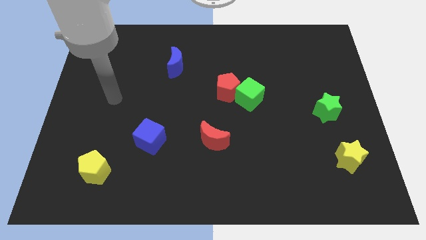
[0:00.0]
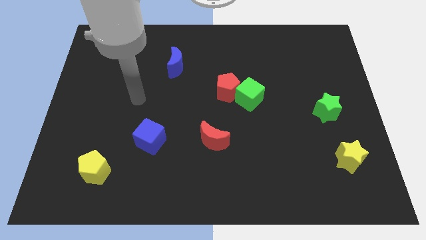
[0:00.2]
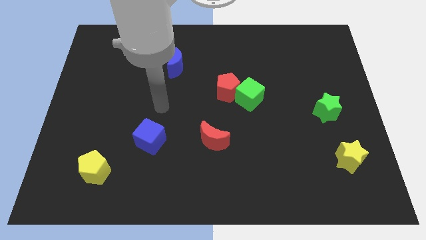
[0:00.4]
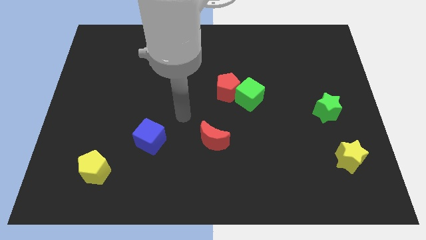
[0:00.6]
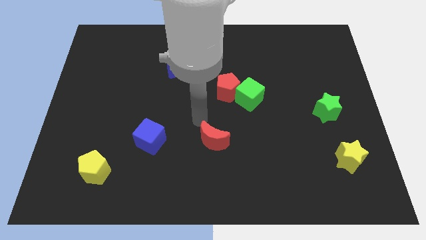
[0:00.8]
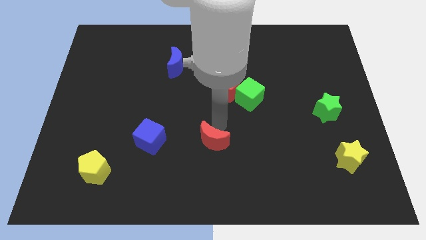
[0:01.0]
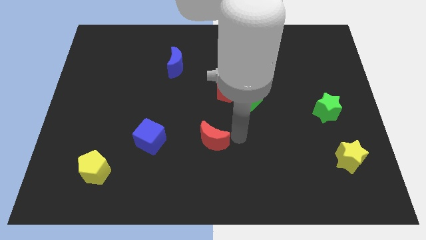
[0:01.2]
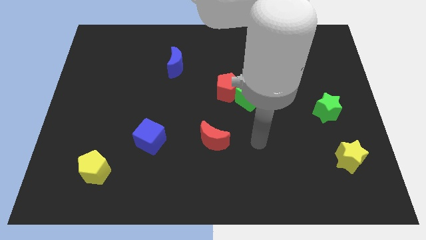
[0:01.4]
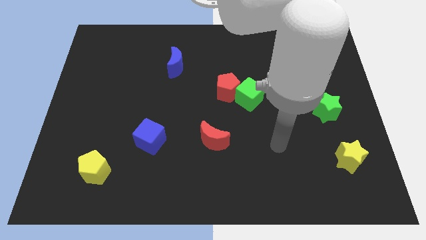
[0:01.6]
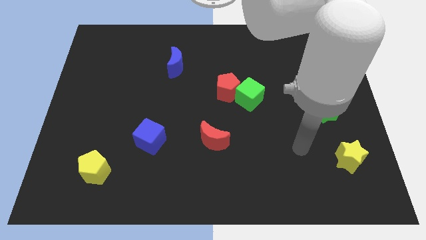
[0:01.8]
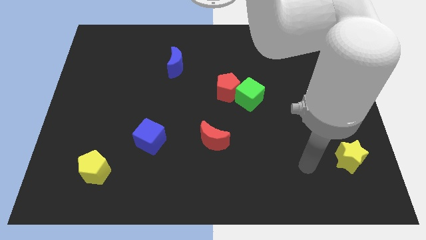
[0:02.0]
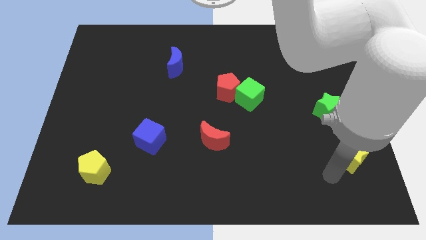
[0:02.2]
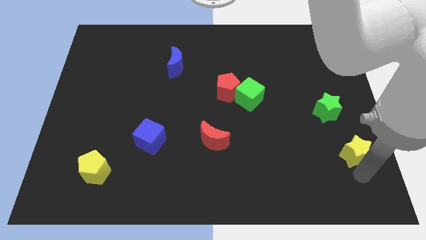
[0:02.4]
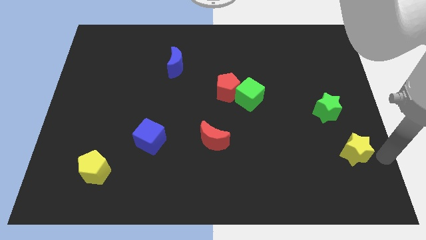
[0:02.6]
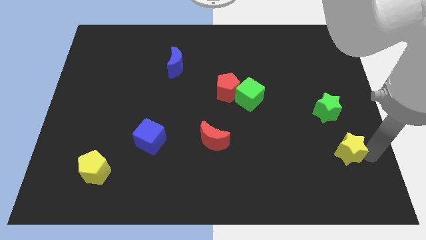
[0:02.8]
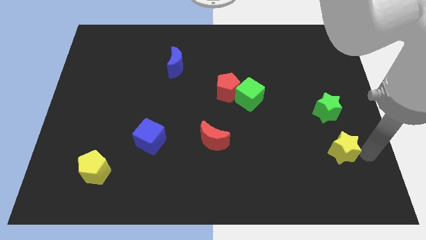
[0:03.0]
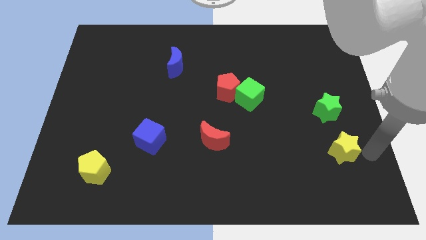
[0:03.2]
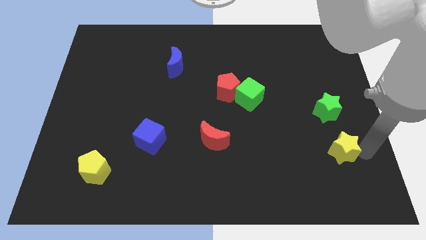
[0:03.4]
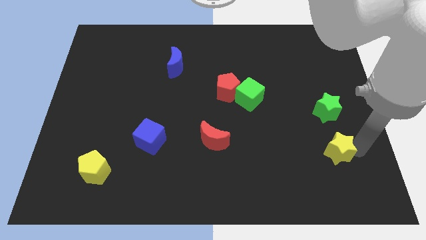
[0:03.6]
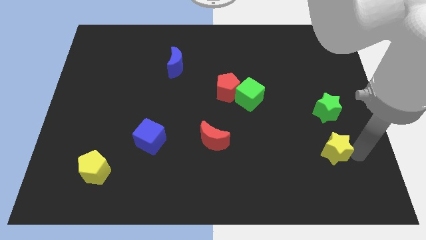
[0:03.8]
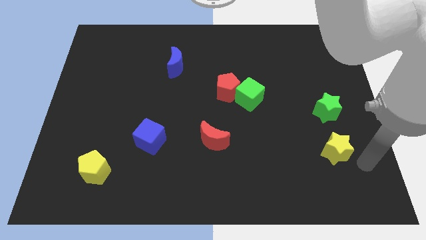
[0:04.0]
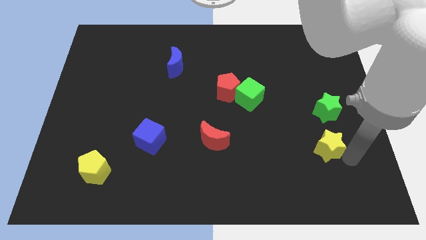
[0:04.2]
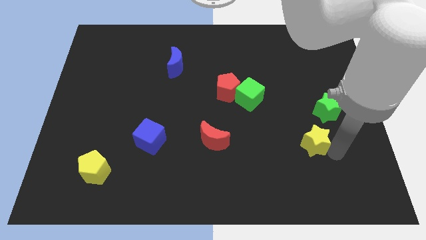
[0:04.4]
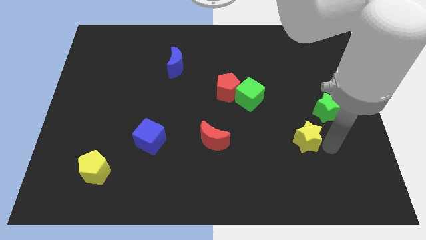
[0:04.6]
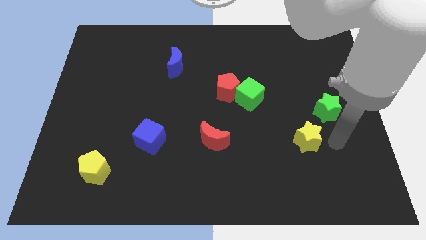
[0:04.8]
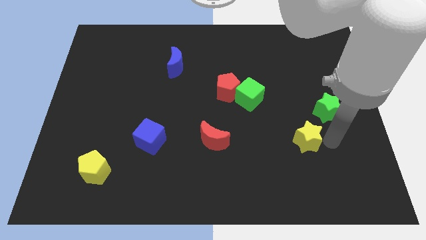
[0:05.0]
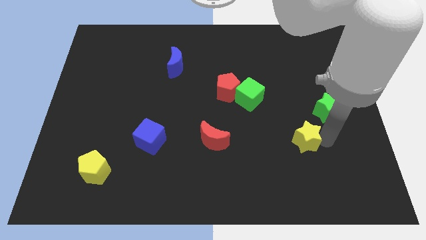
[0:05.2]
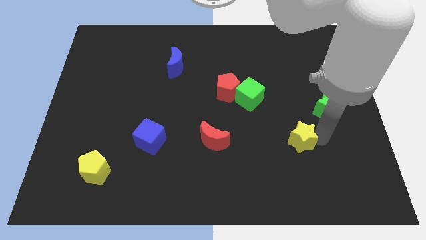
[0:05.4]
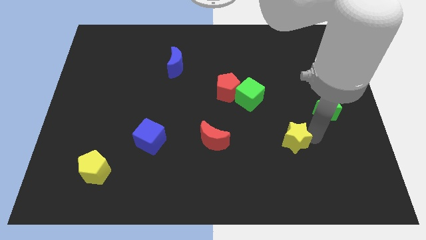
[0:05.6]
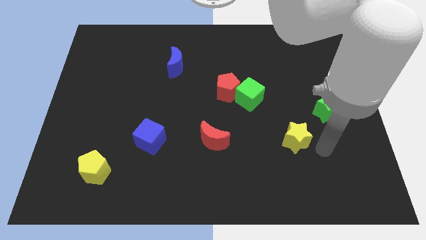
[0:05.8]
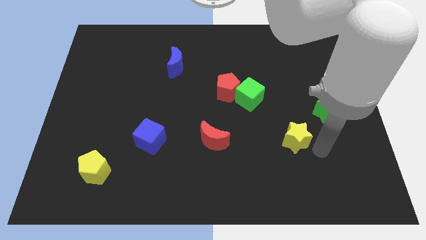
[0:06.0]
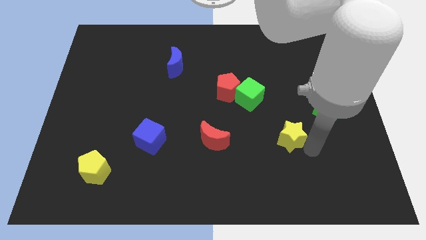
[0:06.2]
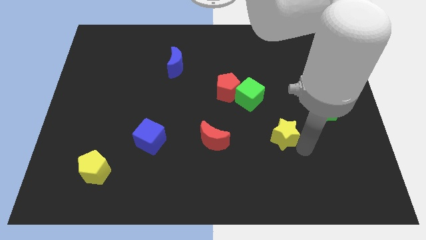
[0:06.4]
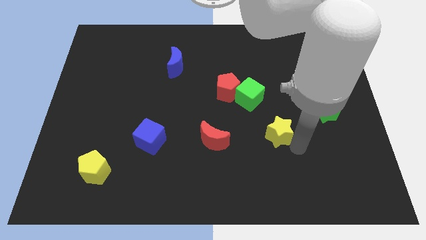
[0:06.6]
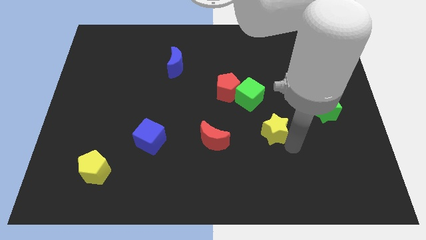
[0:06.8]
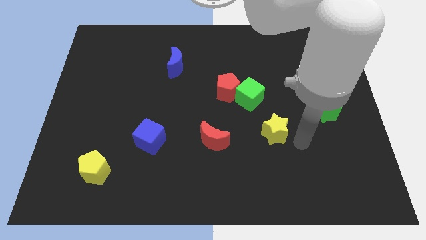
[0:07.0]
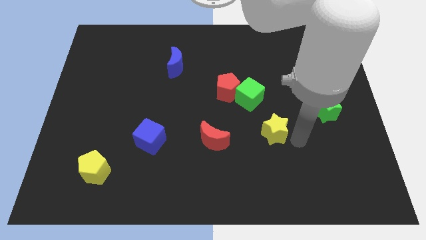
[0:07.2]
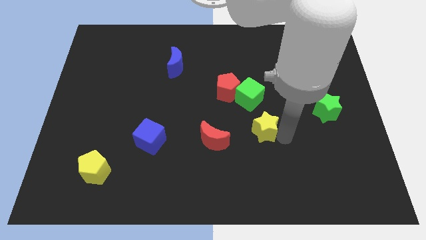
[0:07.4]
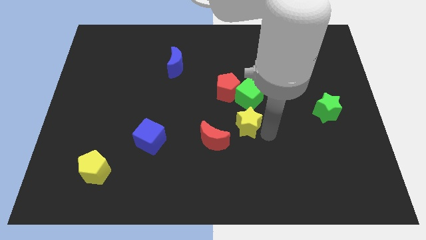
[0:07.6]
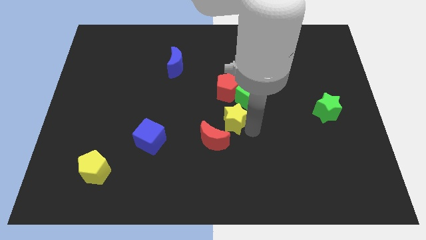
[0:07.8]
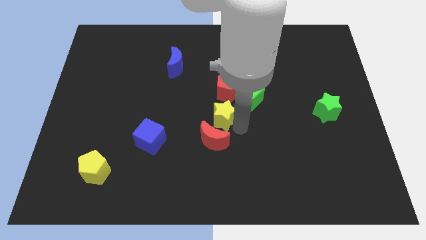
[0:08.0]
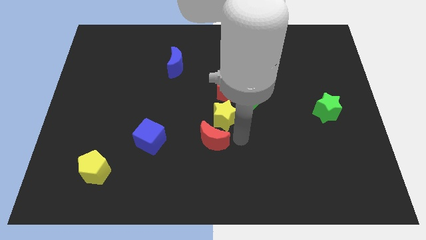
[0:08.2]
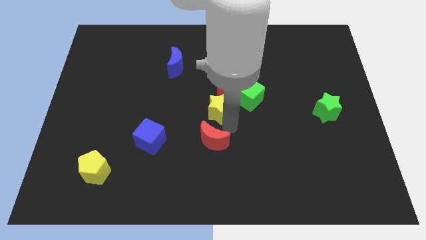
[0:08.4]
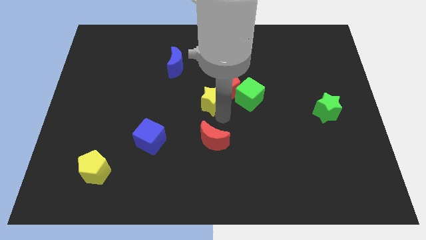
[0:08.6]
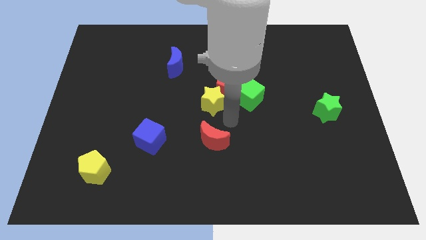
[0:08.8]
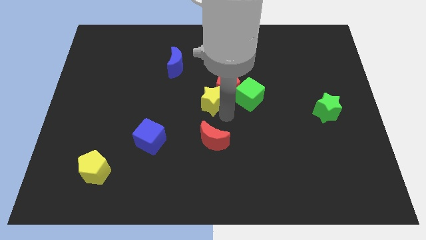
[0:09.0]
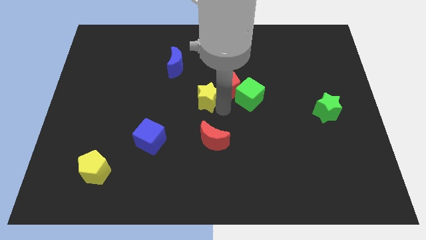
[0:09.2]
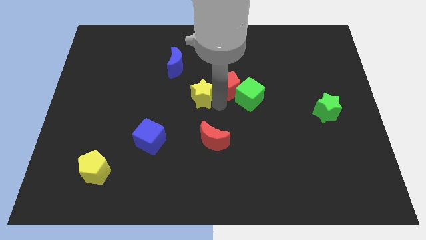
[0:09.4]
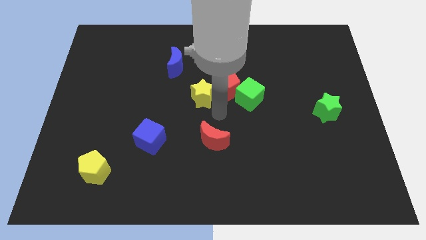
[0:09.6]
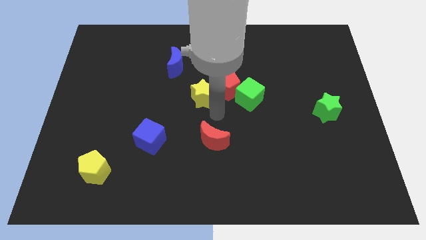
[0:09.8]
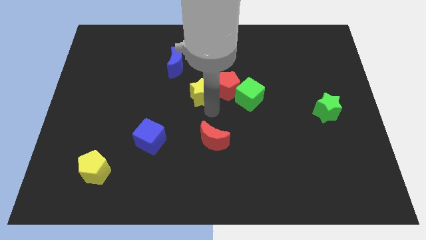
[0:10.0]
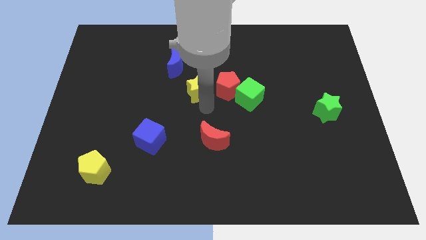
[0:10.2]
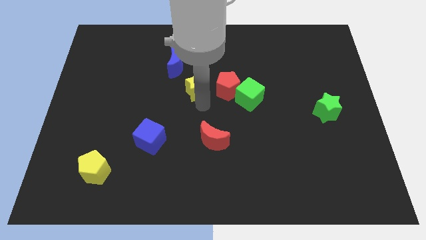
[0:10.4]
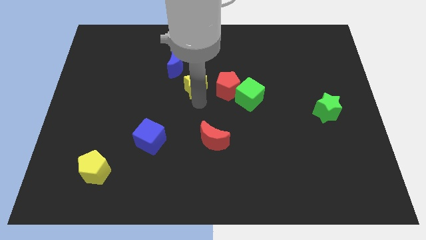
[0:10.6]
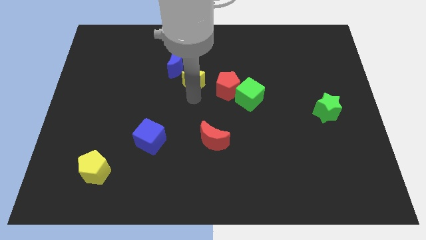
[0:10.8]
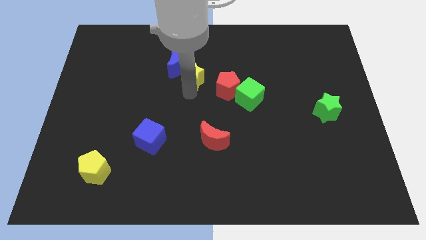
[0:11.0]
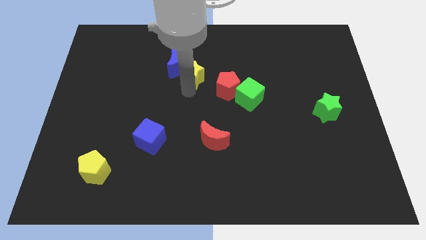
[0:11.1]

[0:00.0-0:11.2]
push the yellow star next to the blue moon

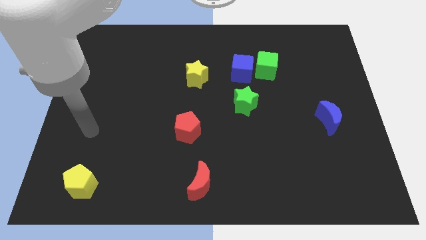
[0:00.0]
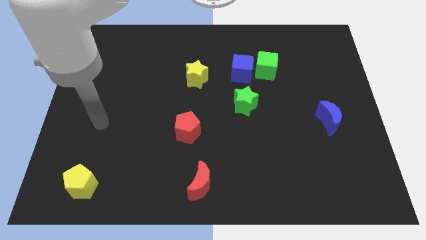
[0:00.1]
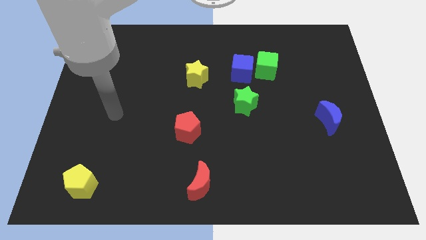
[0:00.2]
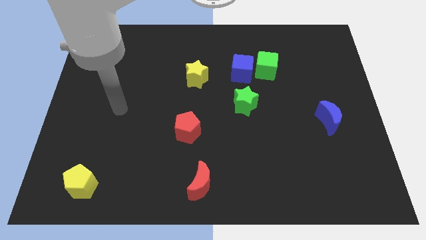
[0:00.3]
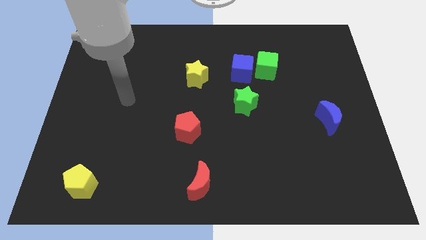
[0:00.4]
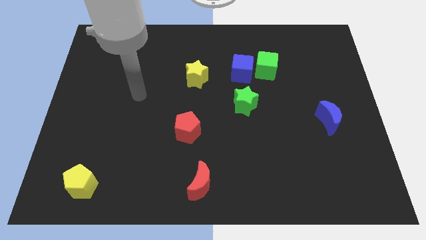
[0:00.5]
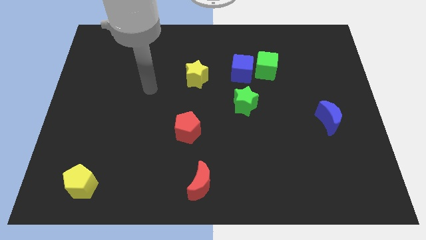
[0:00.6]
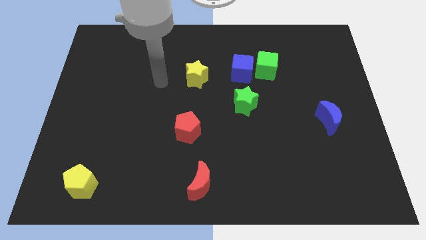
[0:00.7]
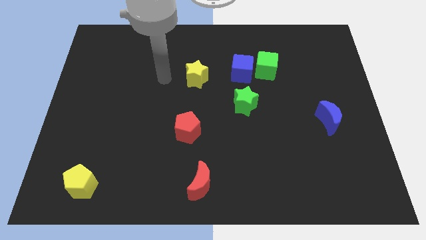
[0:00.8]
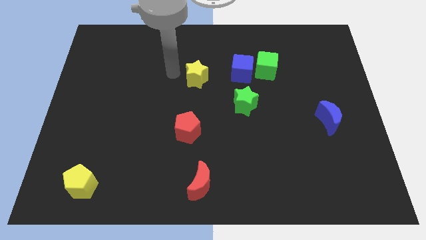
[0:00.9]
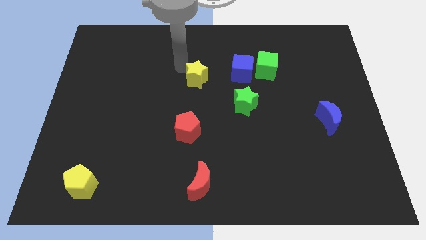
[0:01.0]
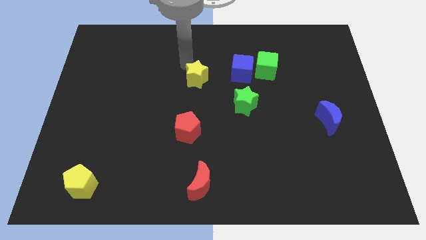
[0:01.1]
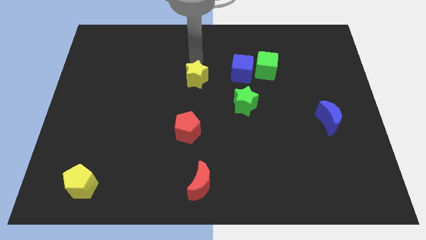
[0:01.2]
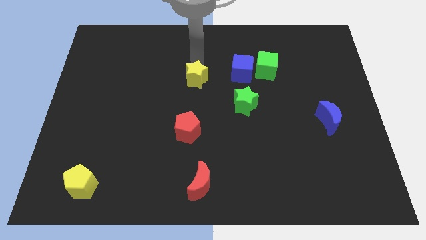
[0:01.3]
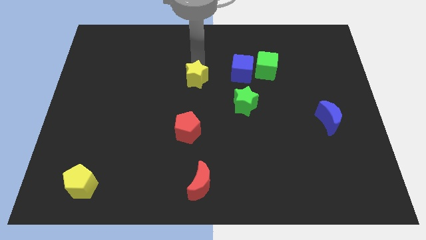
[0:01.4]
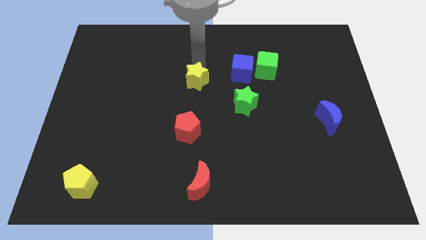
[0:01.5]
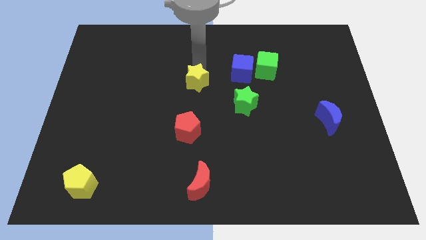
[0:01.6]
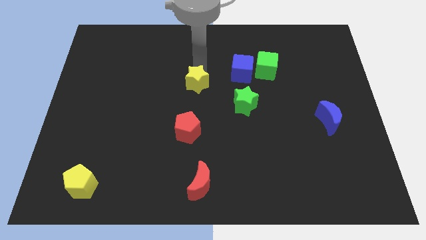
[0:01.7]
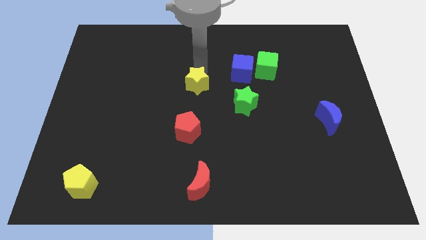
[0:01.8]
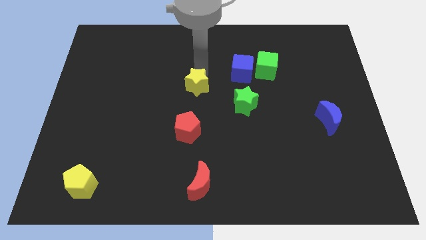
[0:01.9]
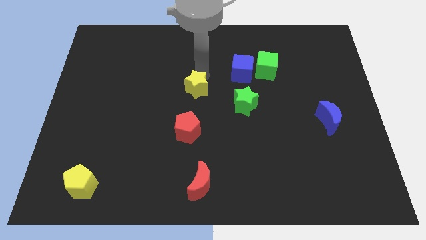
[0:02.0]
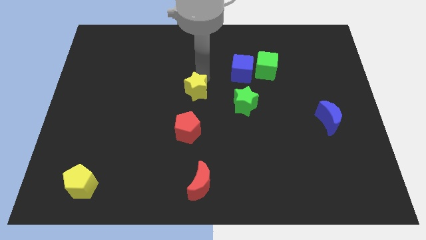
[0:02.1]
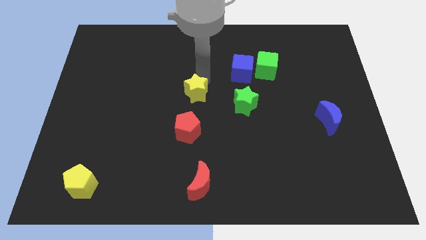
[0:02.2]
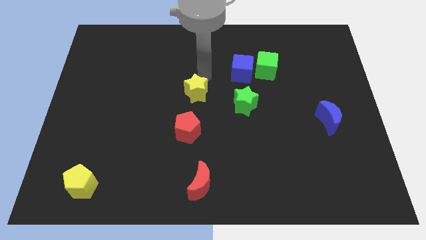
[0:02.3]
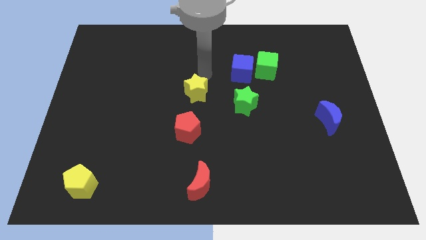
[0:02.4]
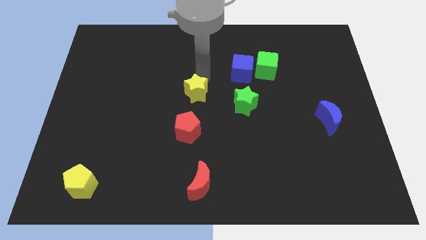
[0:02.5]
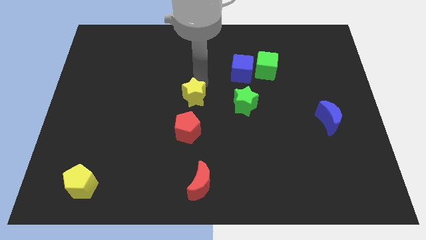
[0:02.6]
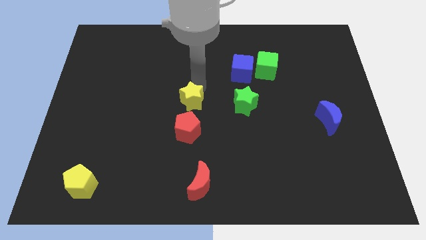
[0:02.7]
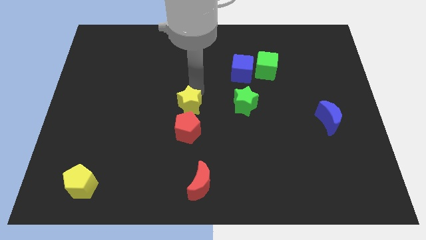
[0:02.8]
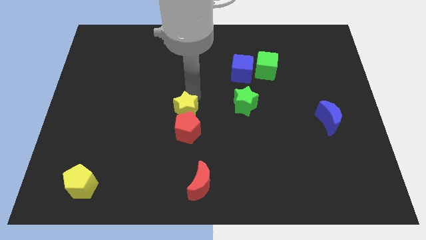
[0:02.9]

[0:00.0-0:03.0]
put the yellow star close to the red pentagon
